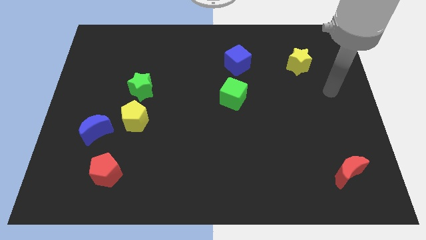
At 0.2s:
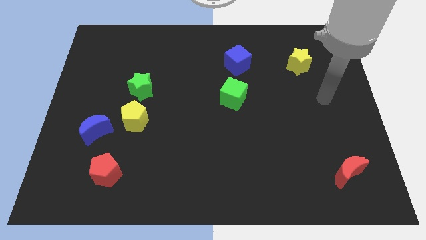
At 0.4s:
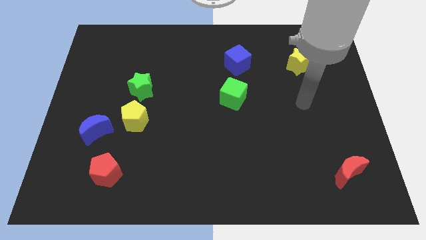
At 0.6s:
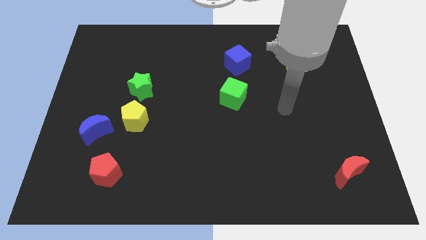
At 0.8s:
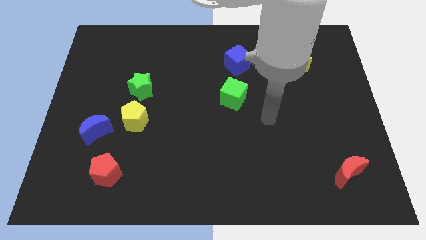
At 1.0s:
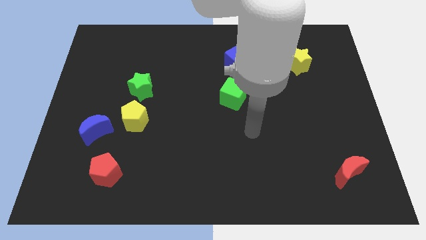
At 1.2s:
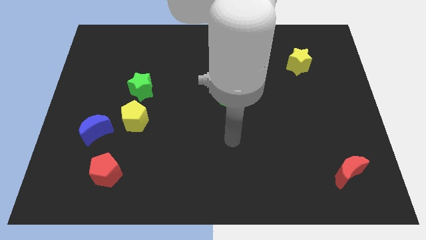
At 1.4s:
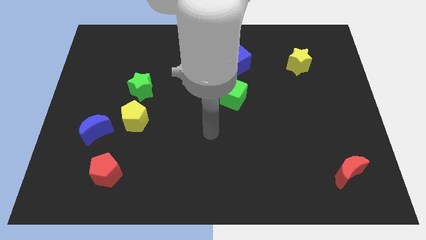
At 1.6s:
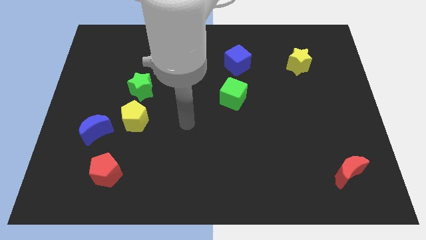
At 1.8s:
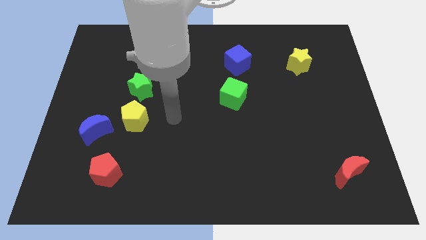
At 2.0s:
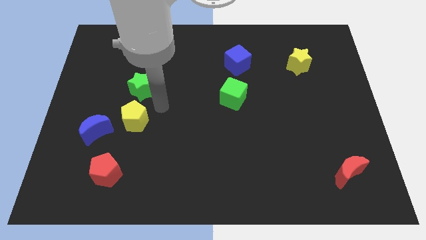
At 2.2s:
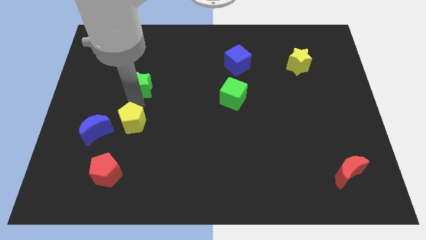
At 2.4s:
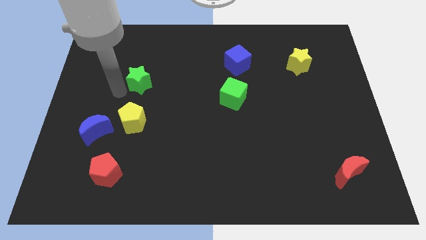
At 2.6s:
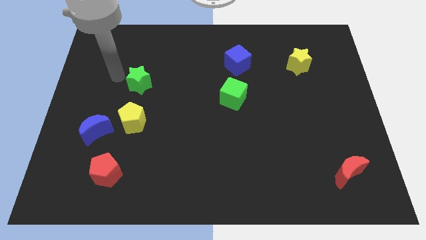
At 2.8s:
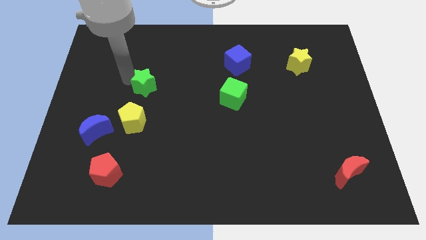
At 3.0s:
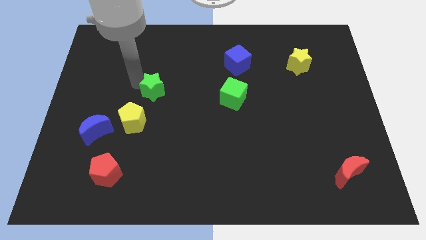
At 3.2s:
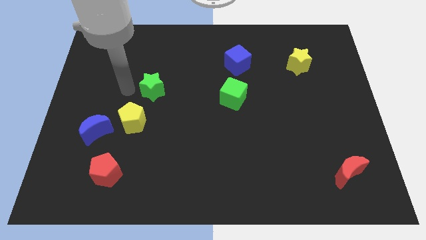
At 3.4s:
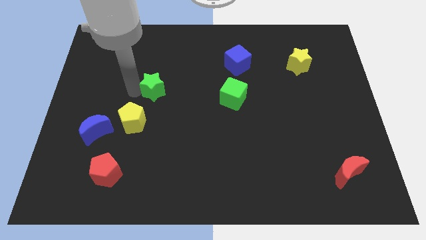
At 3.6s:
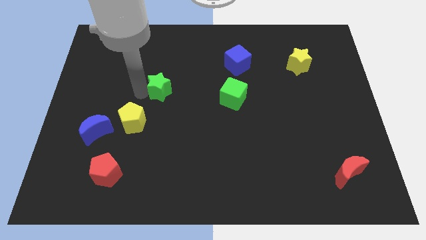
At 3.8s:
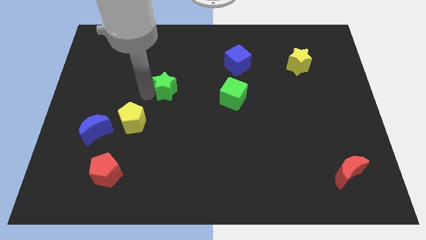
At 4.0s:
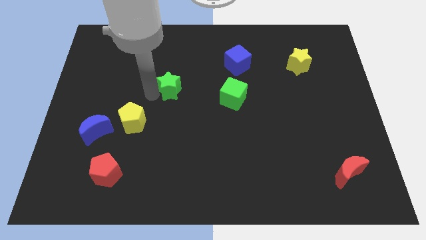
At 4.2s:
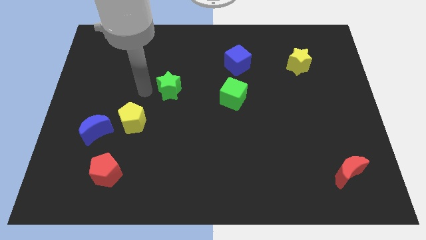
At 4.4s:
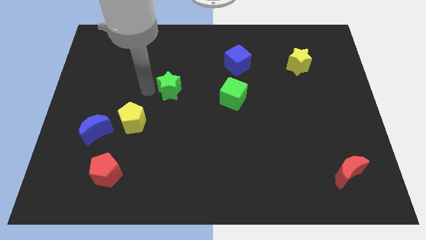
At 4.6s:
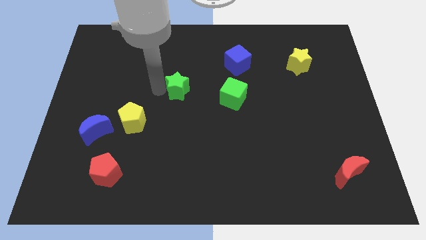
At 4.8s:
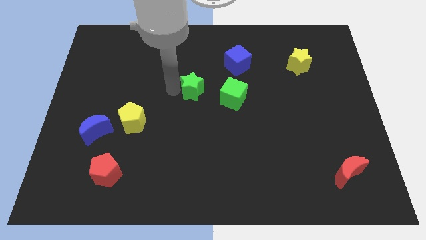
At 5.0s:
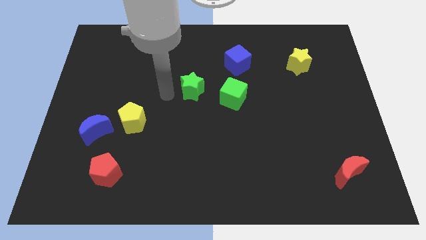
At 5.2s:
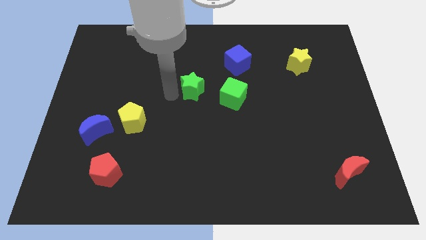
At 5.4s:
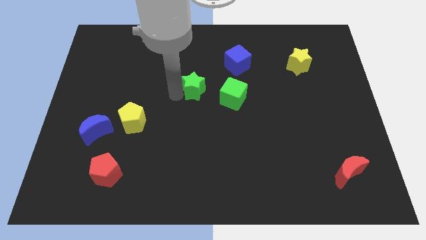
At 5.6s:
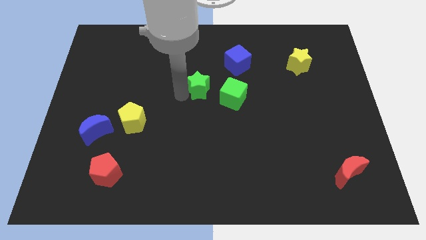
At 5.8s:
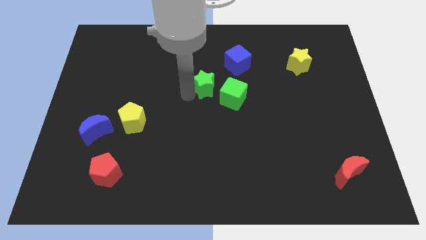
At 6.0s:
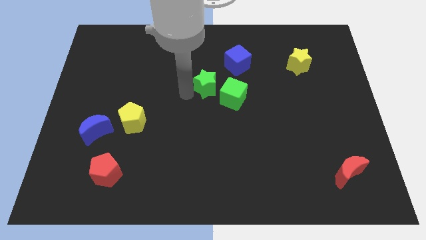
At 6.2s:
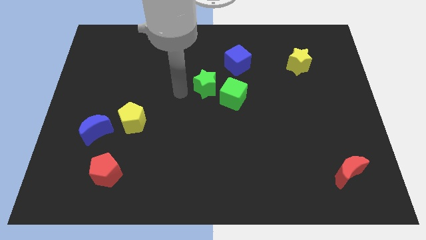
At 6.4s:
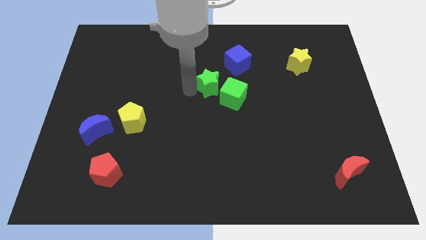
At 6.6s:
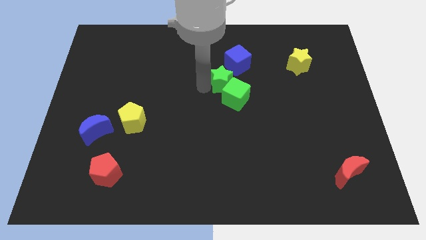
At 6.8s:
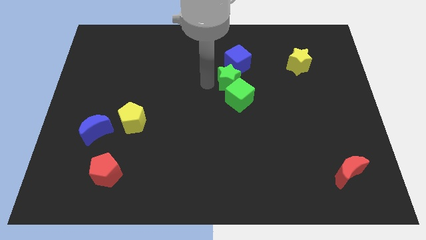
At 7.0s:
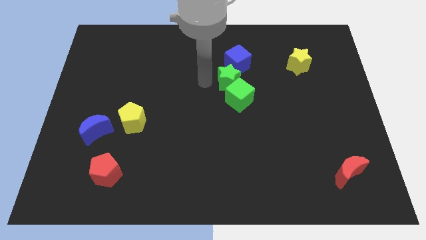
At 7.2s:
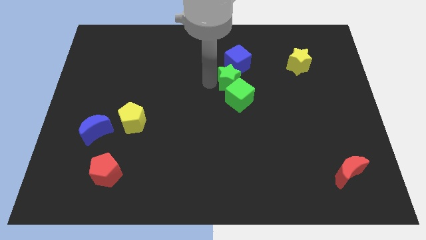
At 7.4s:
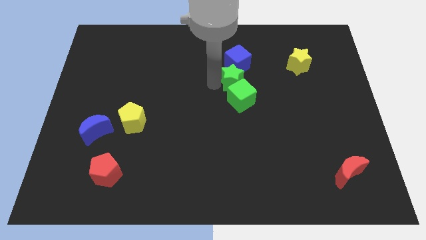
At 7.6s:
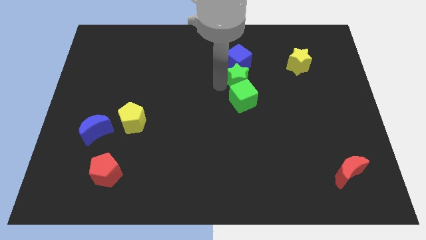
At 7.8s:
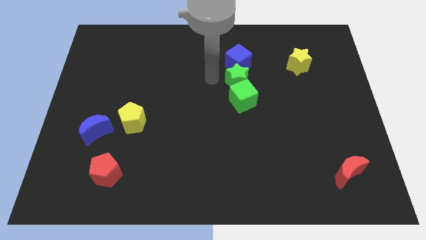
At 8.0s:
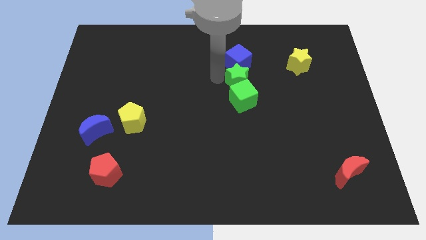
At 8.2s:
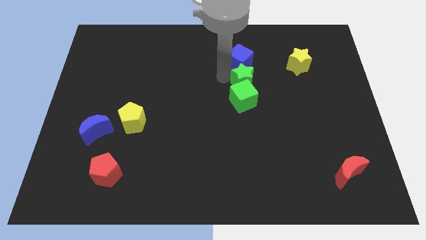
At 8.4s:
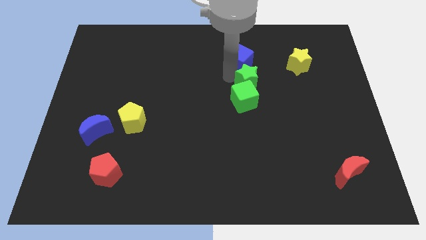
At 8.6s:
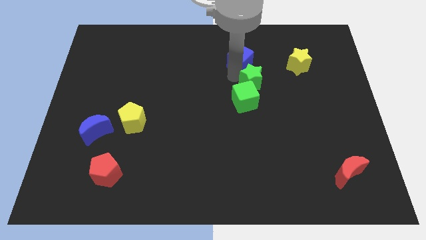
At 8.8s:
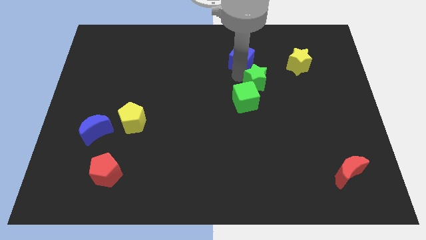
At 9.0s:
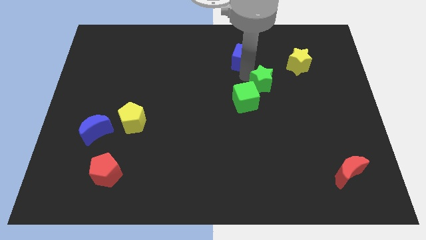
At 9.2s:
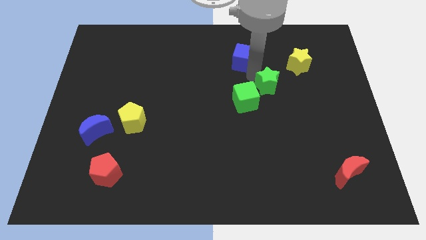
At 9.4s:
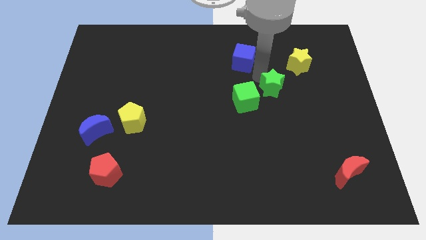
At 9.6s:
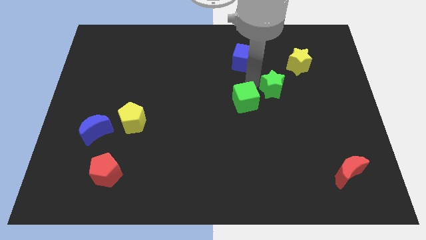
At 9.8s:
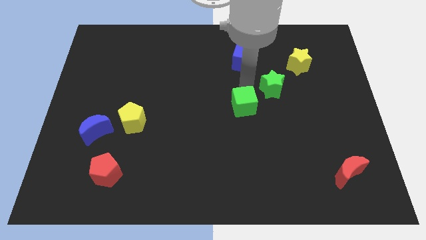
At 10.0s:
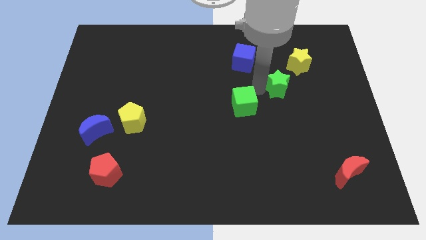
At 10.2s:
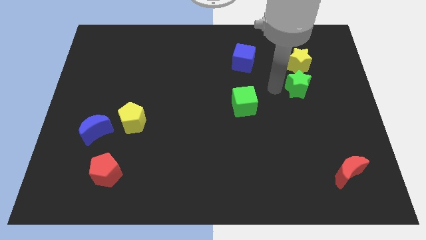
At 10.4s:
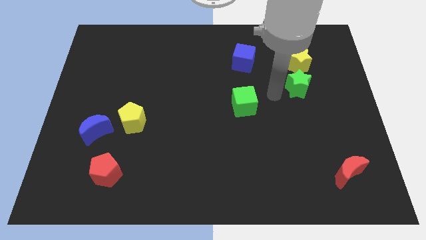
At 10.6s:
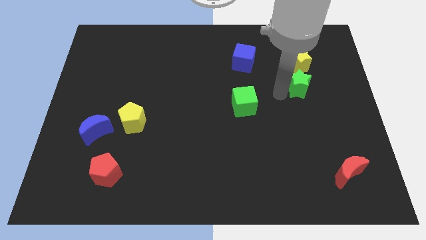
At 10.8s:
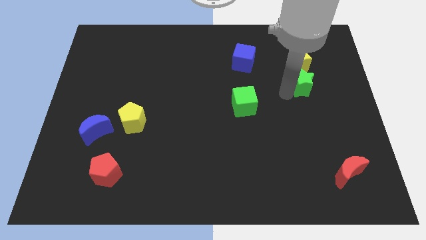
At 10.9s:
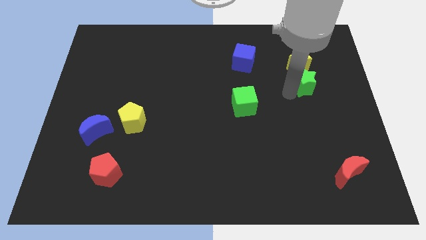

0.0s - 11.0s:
slide the green star to the bottom right of the yellow star

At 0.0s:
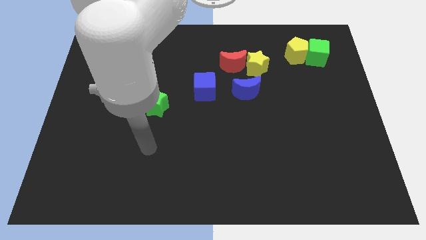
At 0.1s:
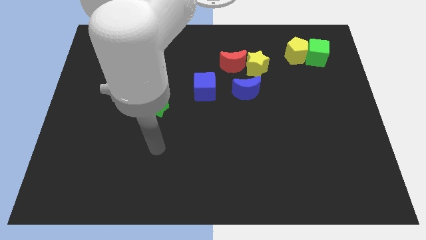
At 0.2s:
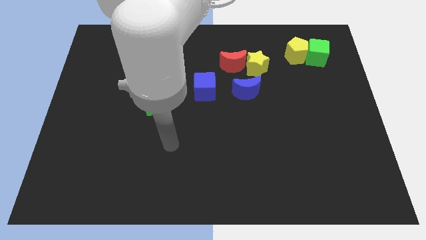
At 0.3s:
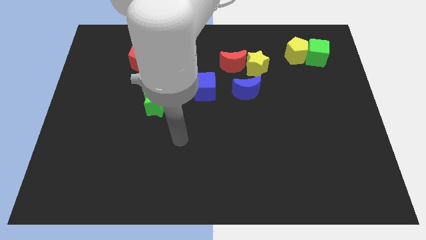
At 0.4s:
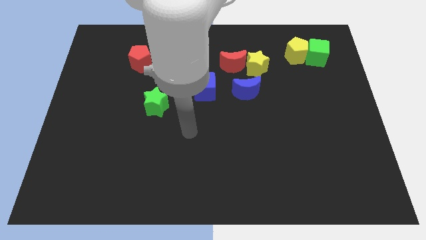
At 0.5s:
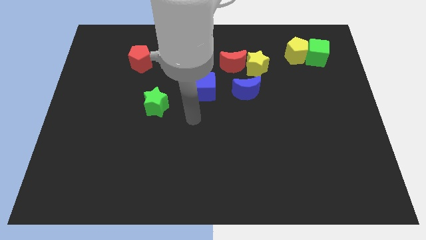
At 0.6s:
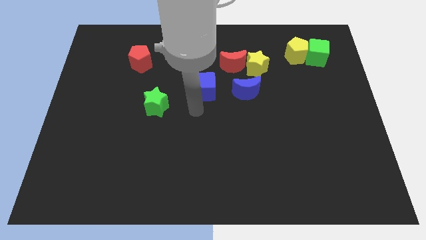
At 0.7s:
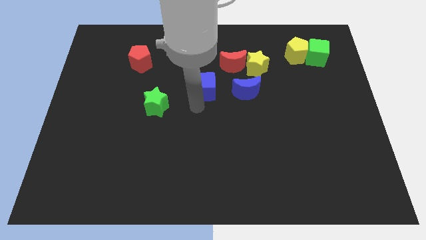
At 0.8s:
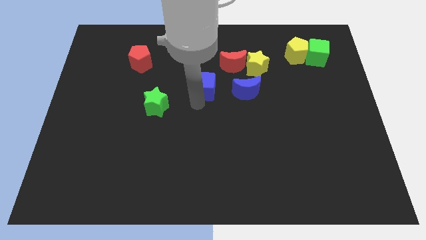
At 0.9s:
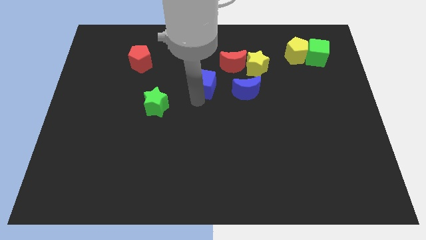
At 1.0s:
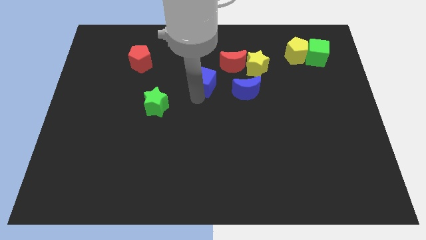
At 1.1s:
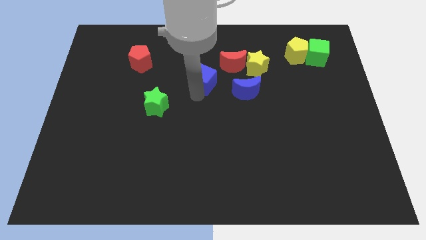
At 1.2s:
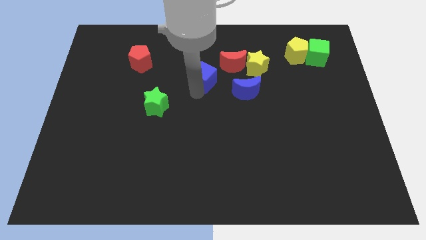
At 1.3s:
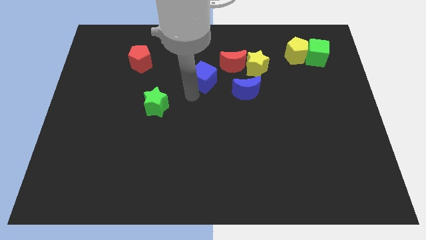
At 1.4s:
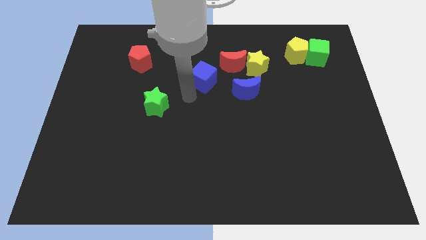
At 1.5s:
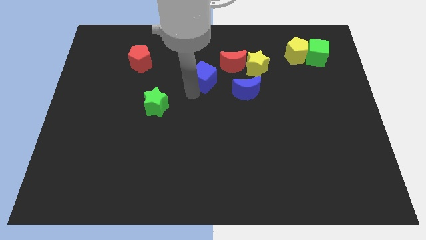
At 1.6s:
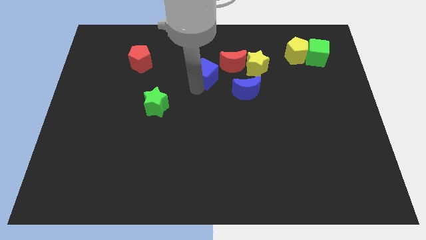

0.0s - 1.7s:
move the blue cube left of the yellow star
